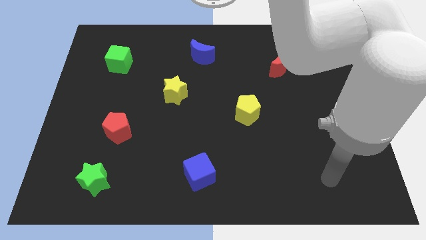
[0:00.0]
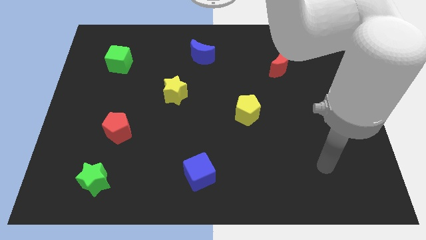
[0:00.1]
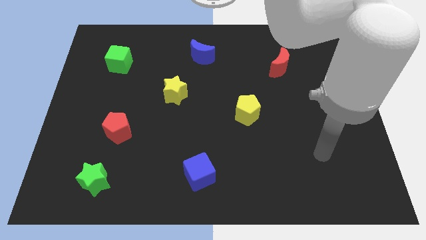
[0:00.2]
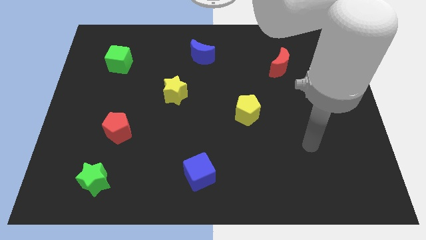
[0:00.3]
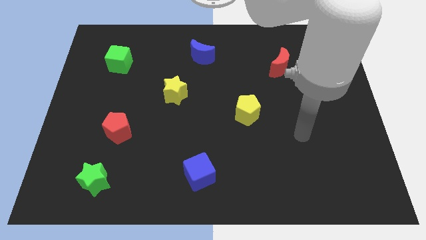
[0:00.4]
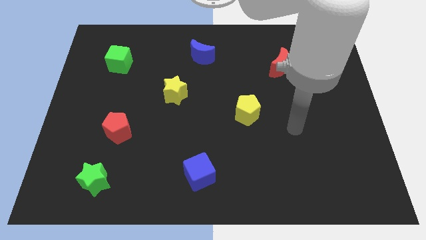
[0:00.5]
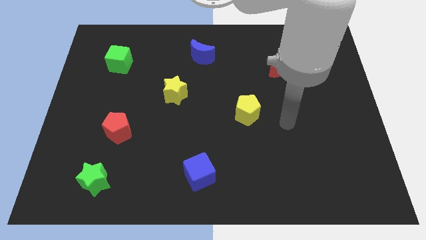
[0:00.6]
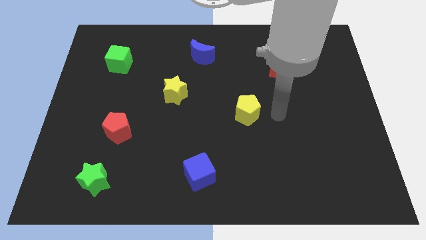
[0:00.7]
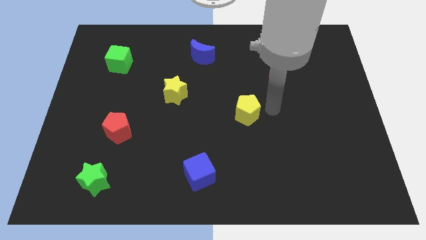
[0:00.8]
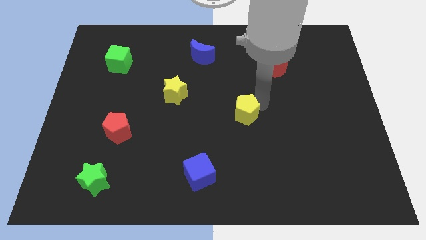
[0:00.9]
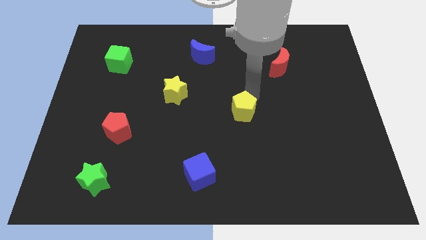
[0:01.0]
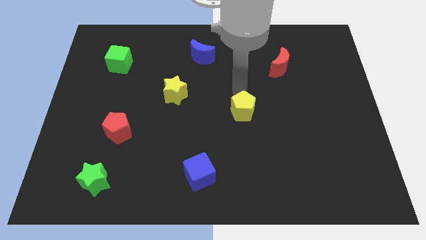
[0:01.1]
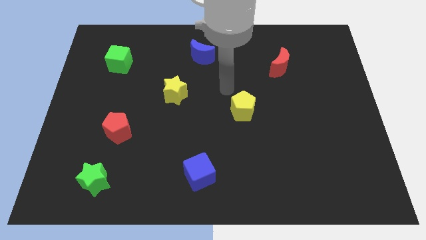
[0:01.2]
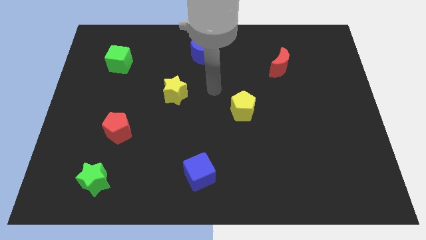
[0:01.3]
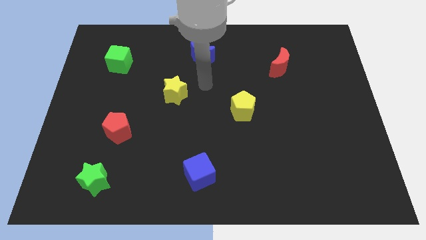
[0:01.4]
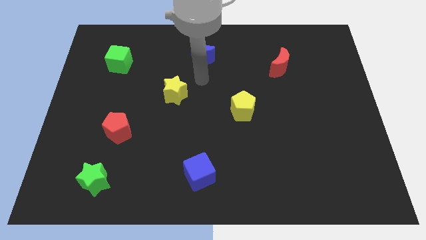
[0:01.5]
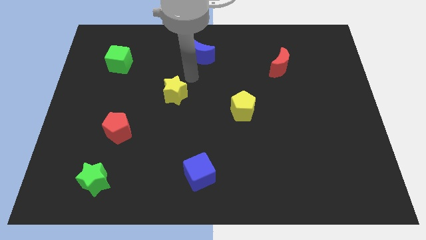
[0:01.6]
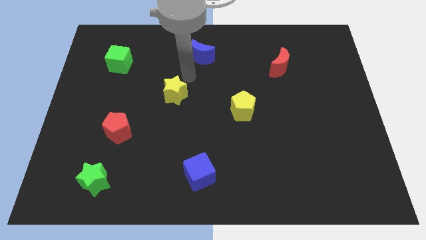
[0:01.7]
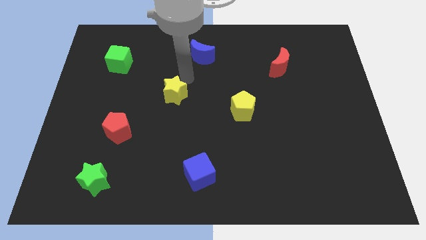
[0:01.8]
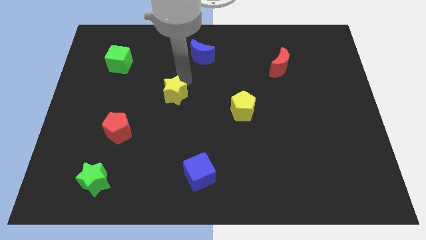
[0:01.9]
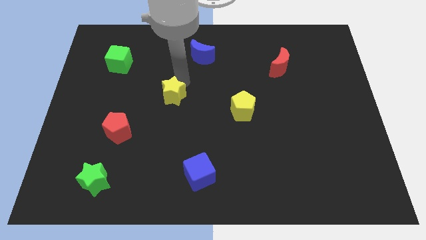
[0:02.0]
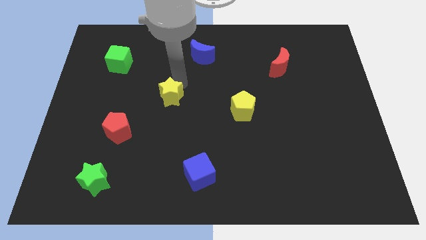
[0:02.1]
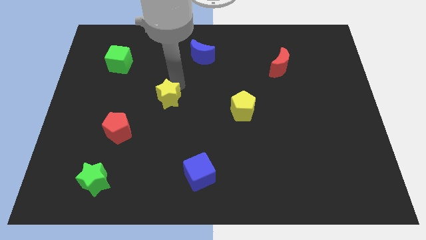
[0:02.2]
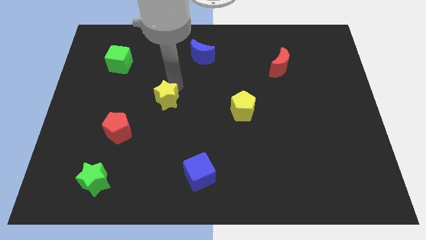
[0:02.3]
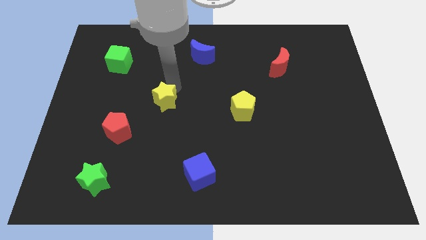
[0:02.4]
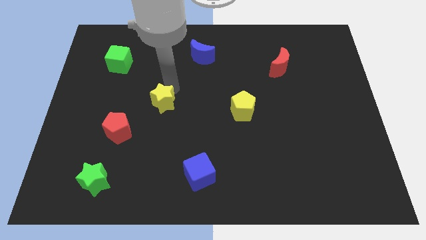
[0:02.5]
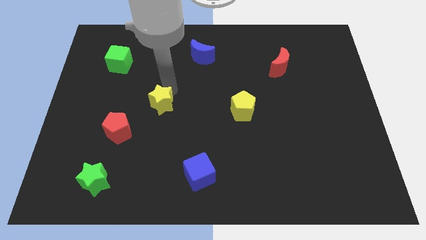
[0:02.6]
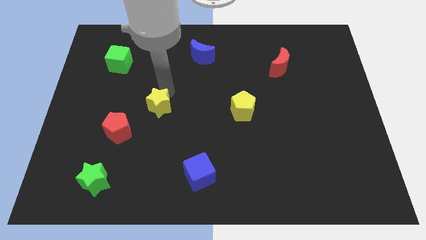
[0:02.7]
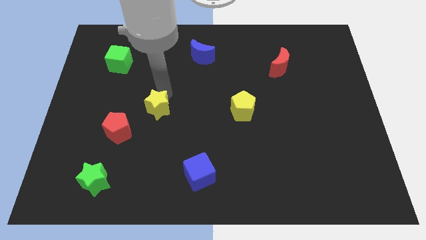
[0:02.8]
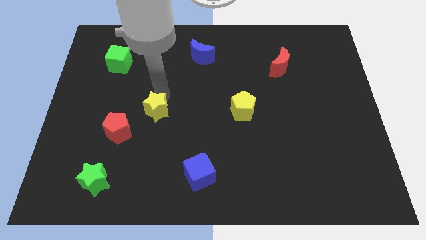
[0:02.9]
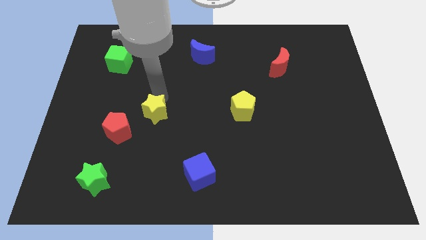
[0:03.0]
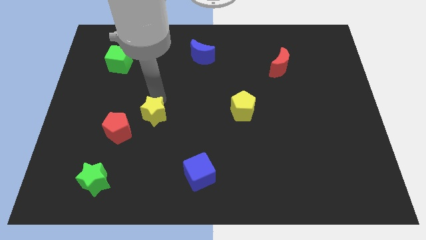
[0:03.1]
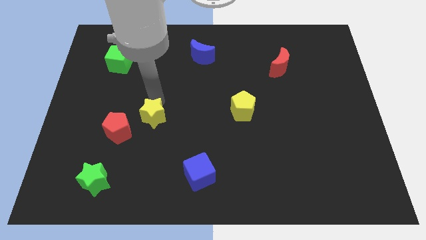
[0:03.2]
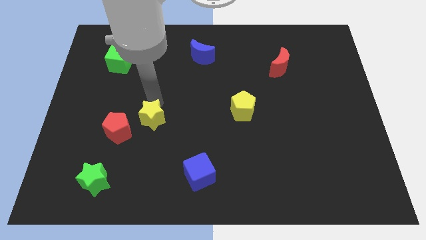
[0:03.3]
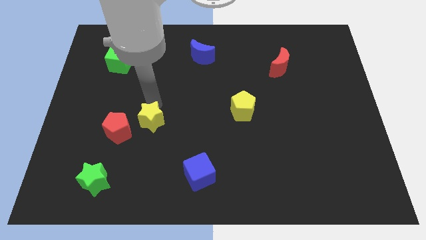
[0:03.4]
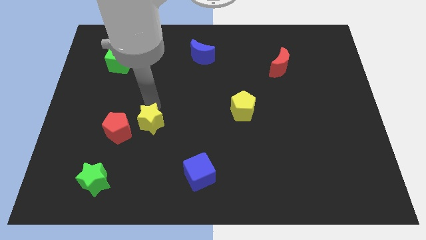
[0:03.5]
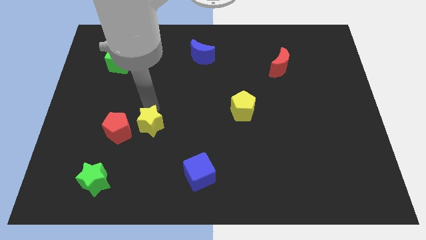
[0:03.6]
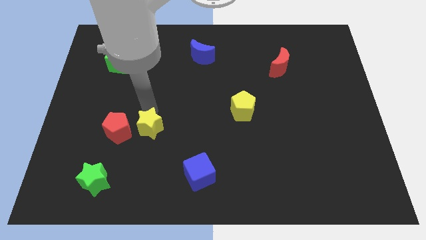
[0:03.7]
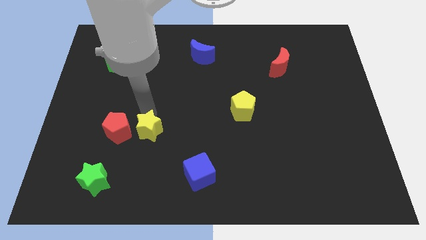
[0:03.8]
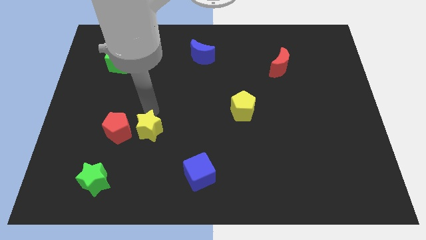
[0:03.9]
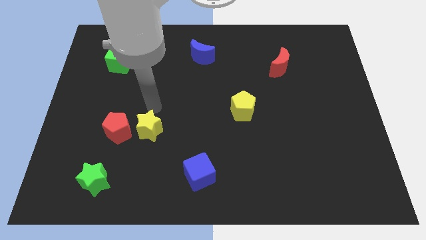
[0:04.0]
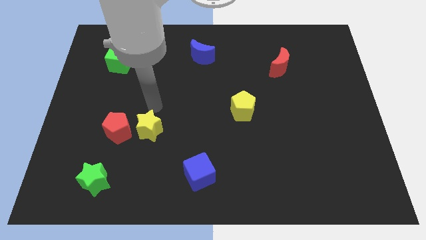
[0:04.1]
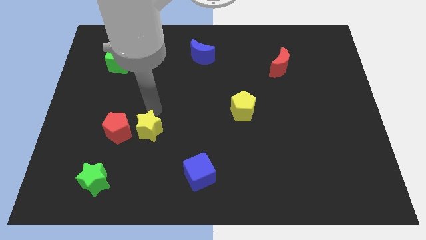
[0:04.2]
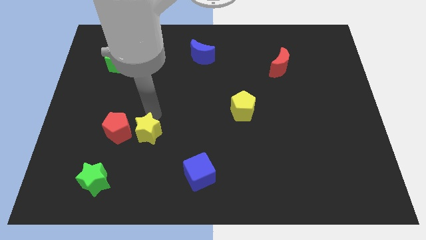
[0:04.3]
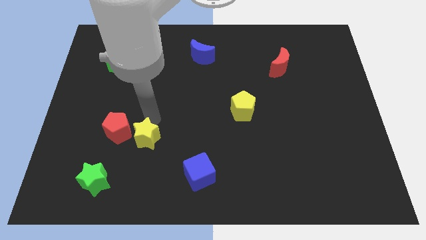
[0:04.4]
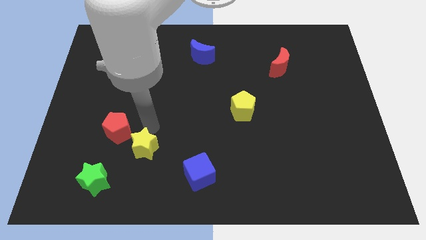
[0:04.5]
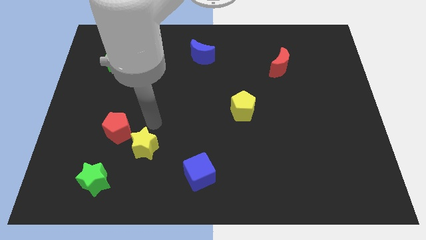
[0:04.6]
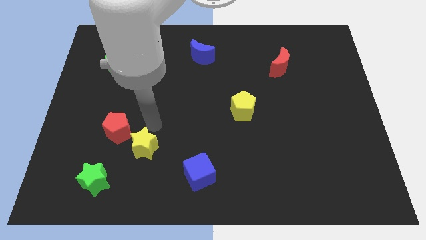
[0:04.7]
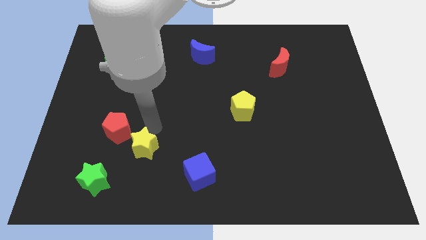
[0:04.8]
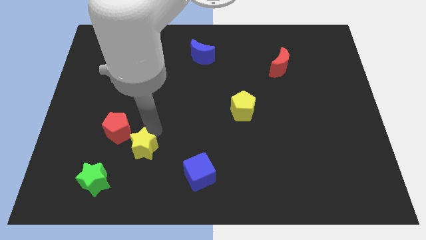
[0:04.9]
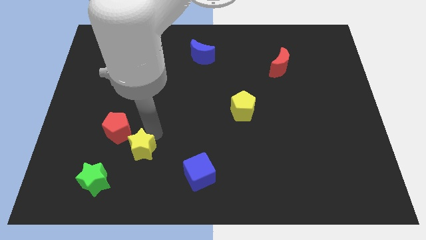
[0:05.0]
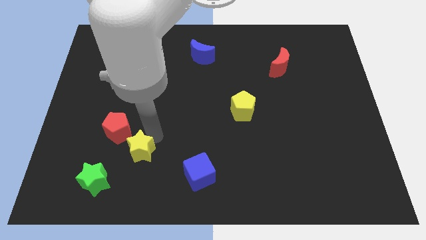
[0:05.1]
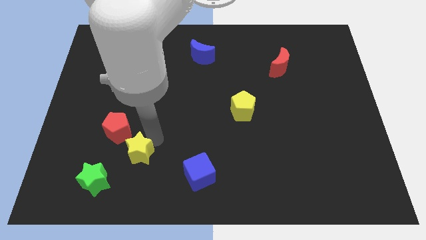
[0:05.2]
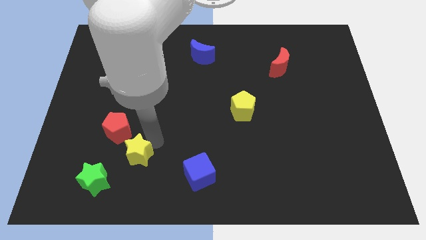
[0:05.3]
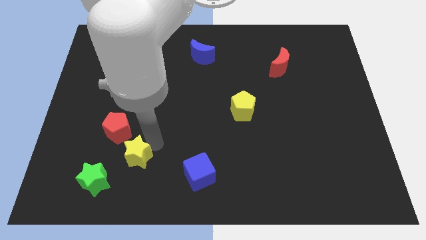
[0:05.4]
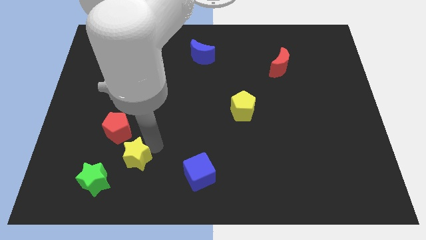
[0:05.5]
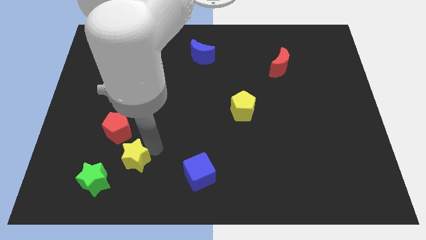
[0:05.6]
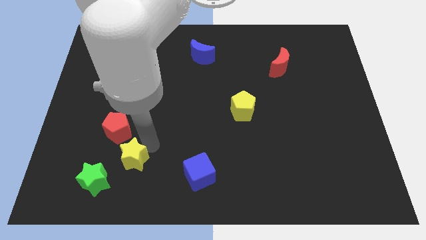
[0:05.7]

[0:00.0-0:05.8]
move the yellow star below the red pentagon

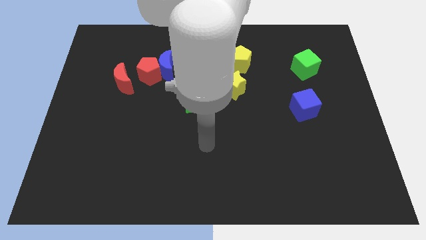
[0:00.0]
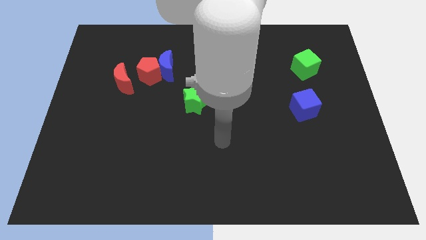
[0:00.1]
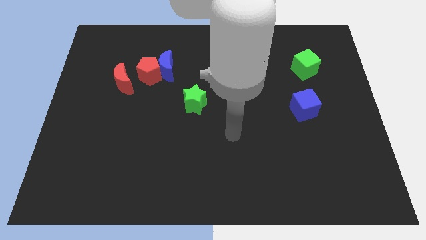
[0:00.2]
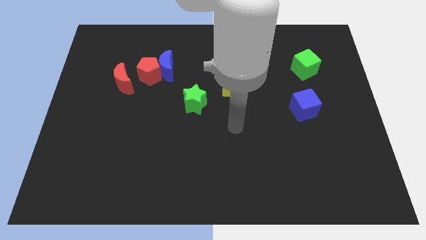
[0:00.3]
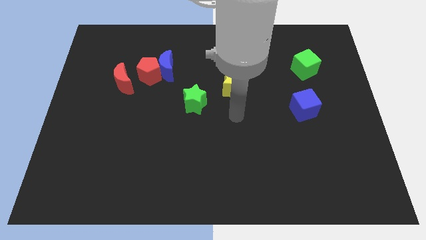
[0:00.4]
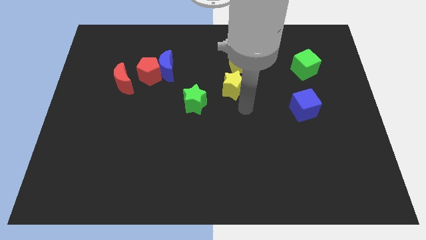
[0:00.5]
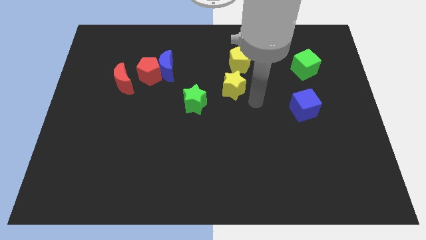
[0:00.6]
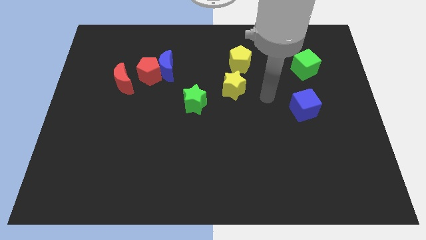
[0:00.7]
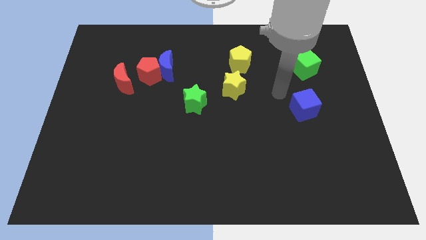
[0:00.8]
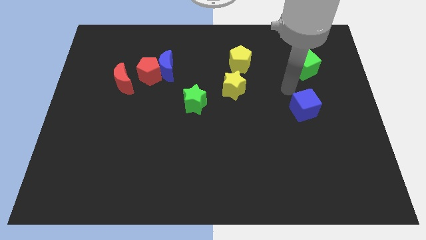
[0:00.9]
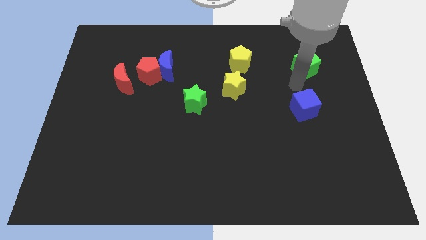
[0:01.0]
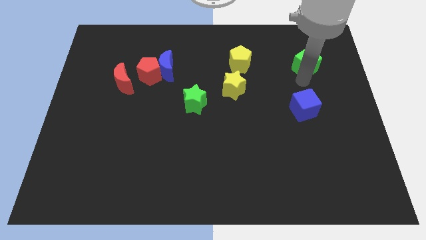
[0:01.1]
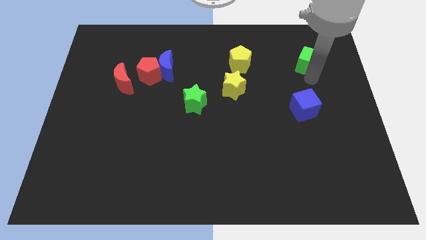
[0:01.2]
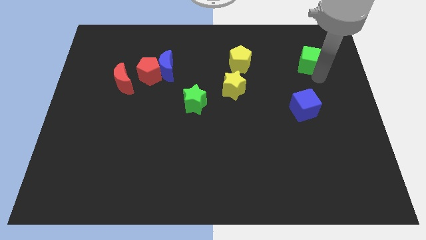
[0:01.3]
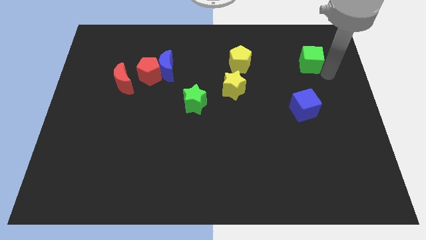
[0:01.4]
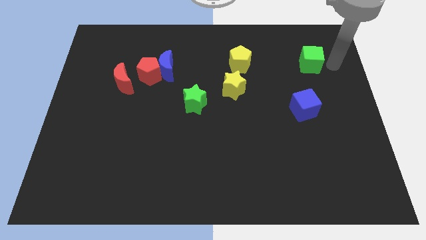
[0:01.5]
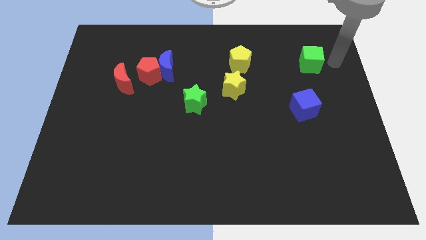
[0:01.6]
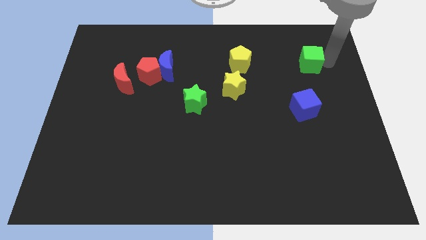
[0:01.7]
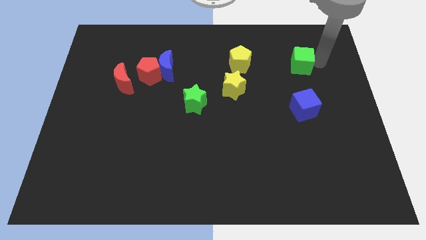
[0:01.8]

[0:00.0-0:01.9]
push the green cube to the right of the yellow pentagon
